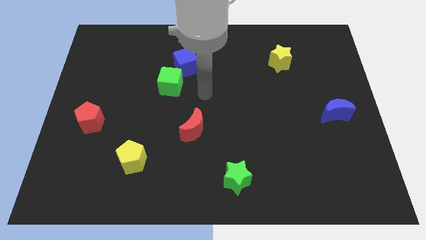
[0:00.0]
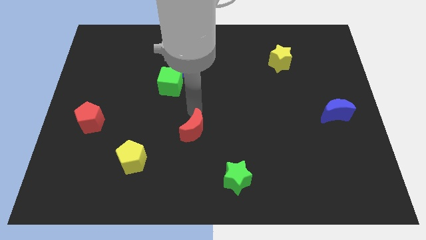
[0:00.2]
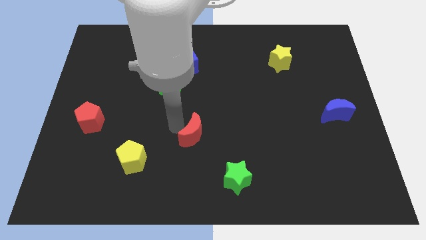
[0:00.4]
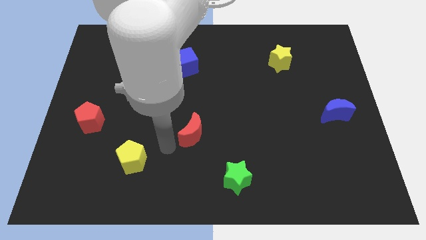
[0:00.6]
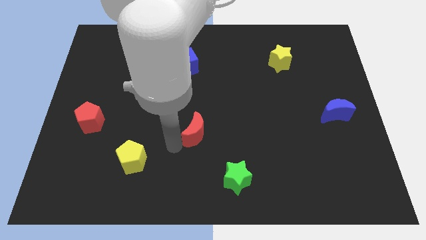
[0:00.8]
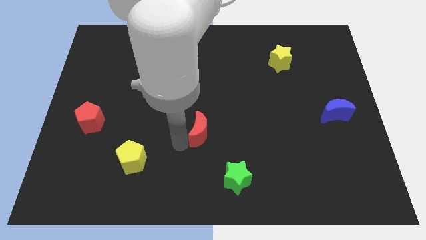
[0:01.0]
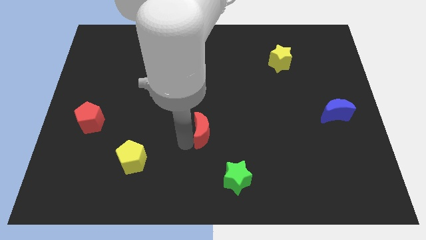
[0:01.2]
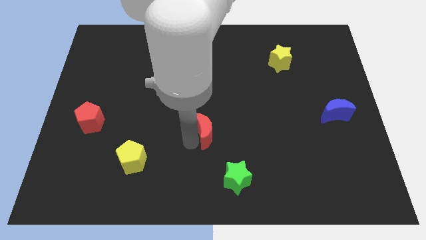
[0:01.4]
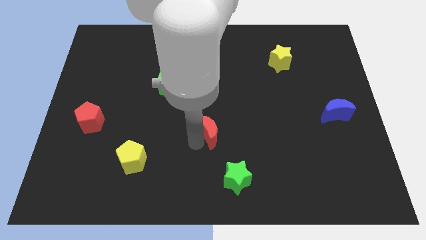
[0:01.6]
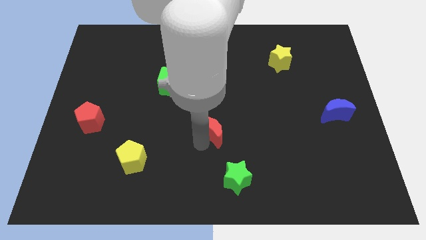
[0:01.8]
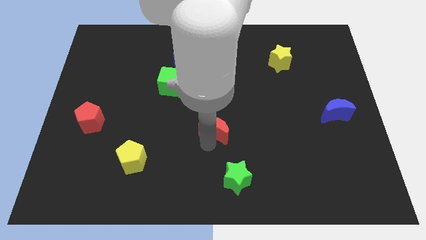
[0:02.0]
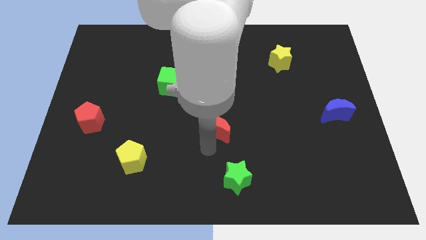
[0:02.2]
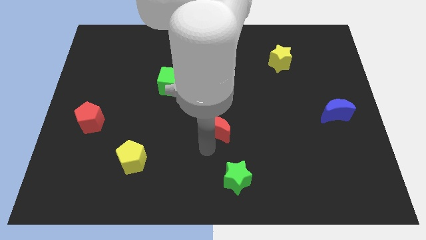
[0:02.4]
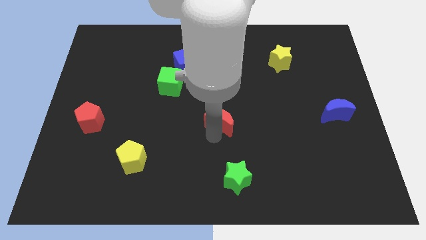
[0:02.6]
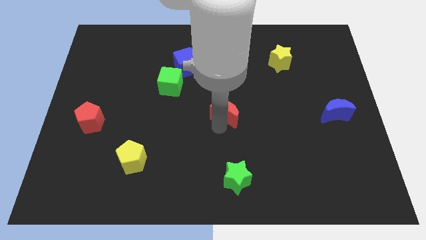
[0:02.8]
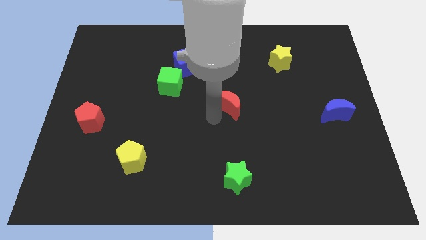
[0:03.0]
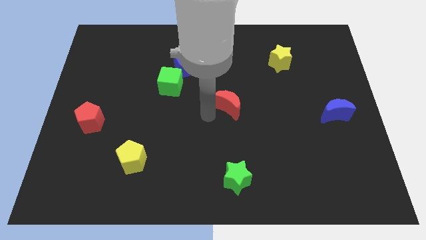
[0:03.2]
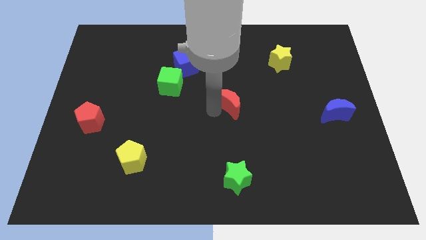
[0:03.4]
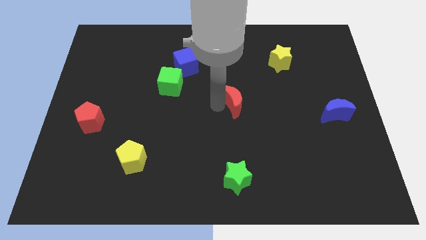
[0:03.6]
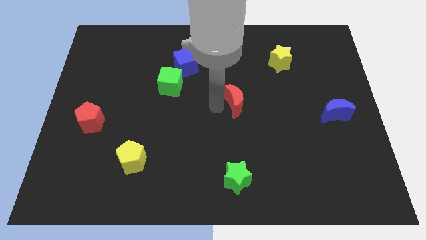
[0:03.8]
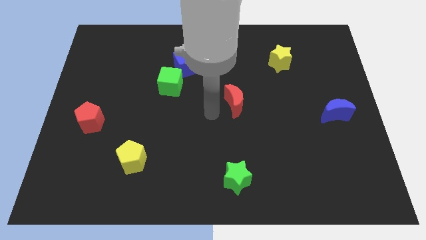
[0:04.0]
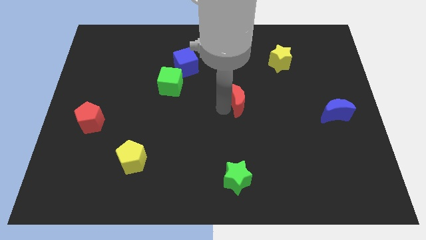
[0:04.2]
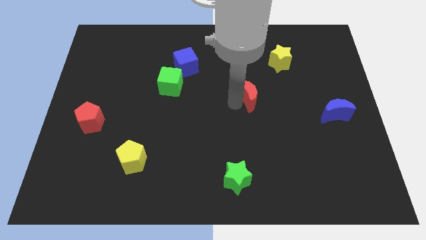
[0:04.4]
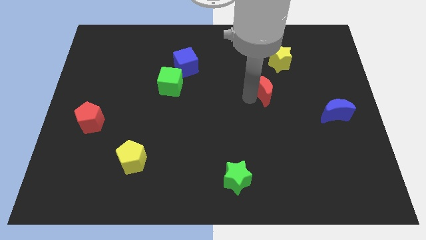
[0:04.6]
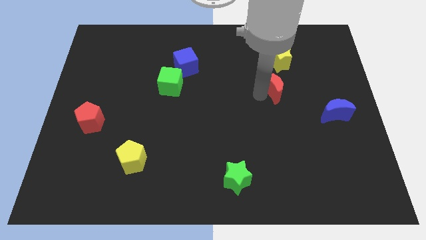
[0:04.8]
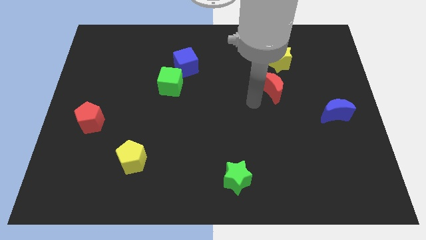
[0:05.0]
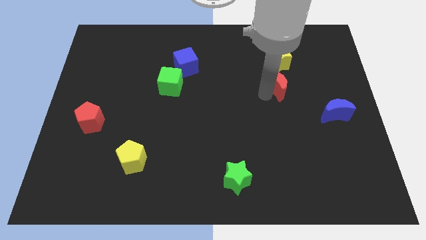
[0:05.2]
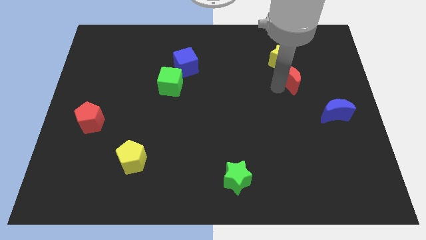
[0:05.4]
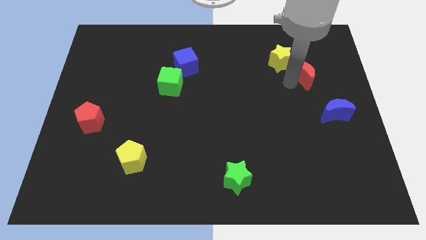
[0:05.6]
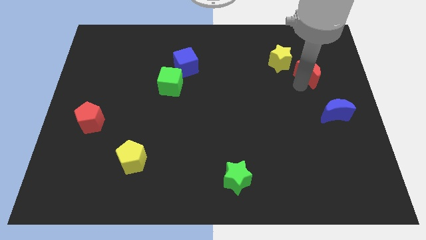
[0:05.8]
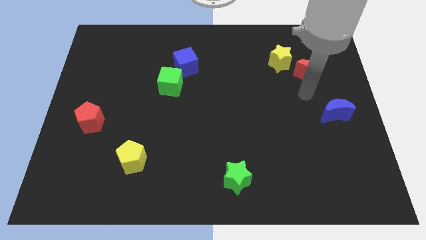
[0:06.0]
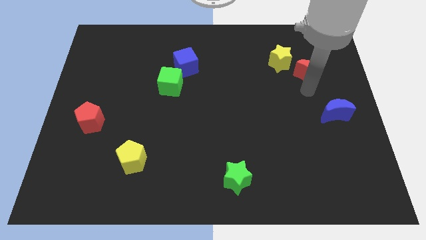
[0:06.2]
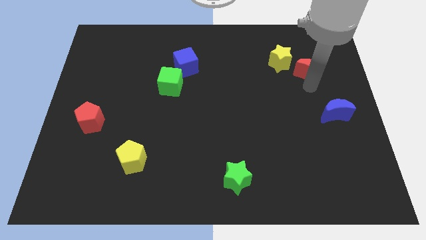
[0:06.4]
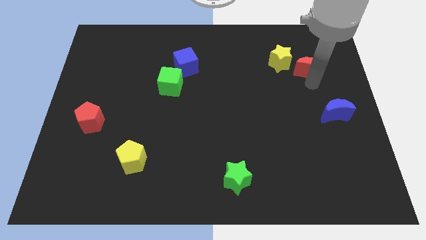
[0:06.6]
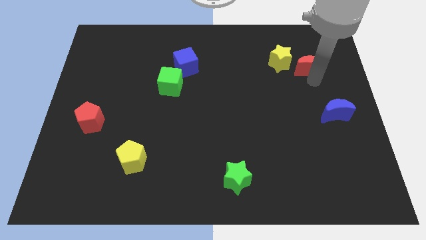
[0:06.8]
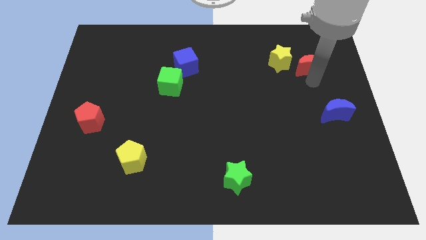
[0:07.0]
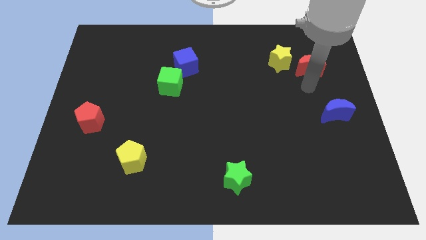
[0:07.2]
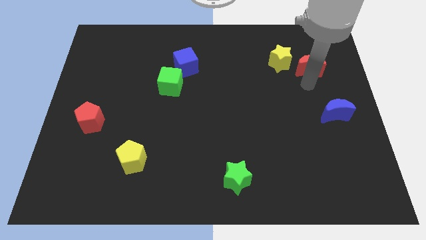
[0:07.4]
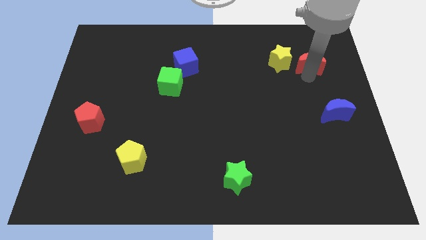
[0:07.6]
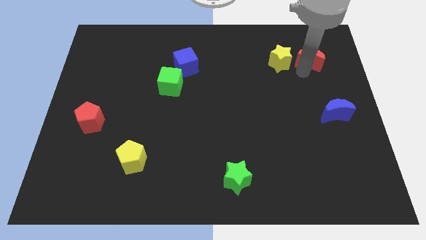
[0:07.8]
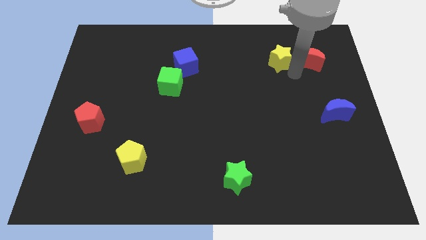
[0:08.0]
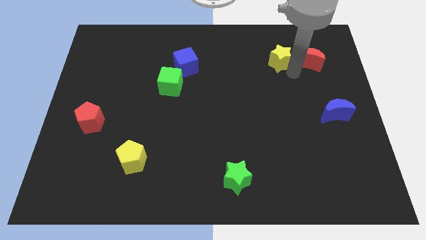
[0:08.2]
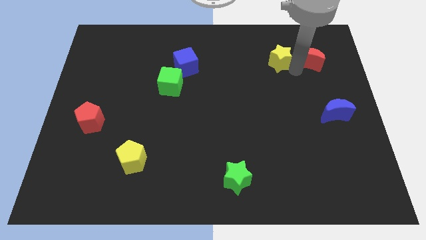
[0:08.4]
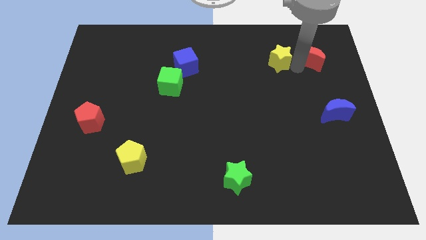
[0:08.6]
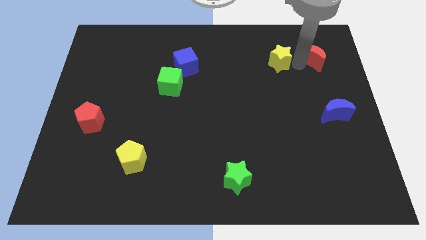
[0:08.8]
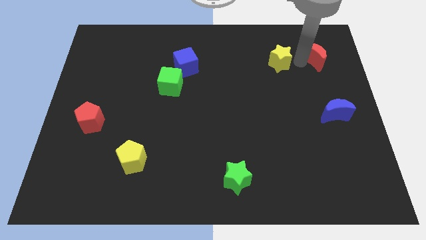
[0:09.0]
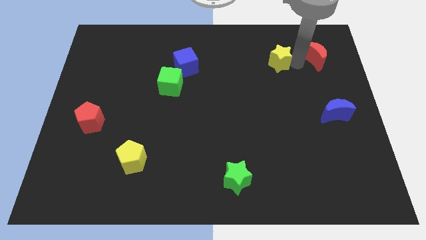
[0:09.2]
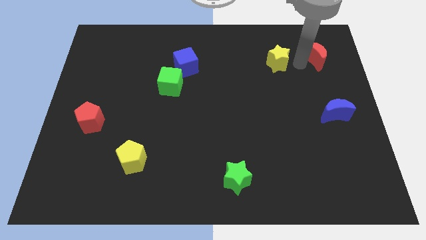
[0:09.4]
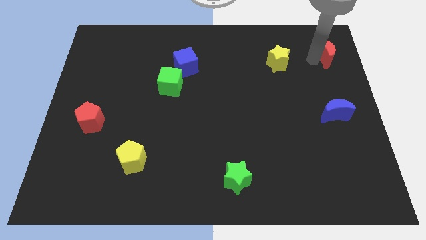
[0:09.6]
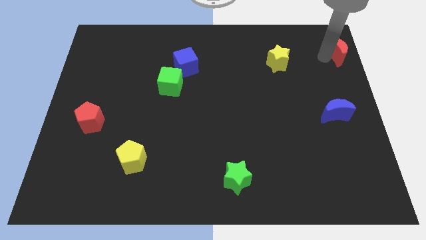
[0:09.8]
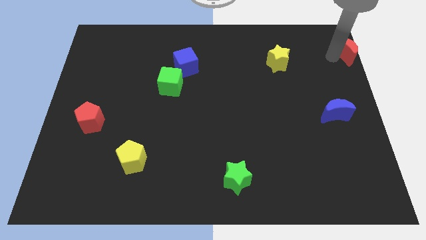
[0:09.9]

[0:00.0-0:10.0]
put the red moon to the top right

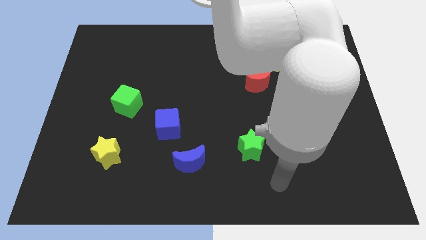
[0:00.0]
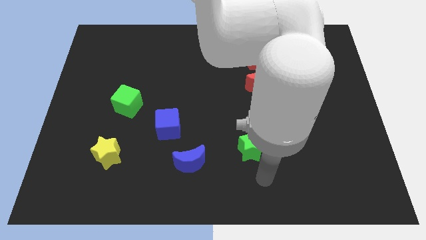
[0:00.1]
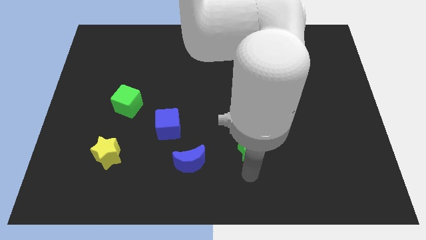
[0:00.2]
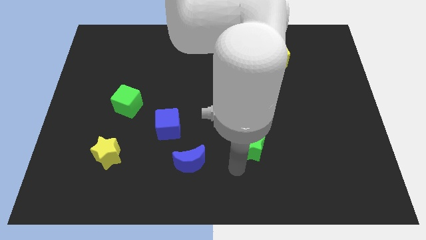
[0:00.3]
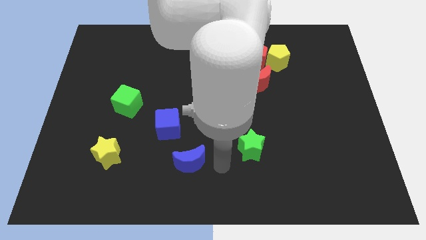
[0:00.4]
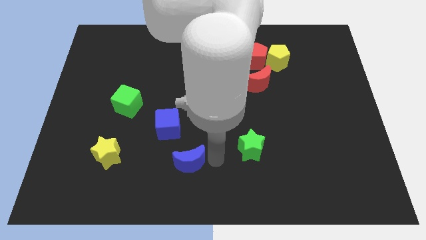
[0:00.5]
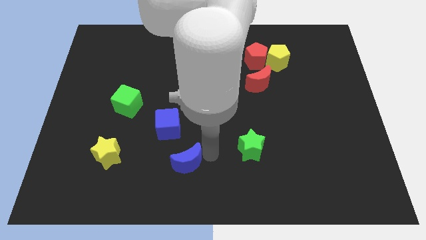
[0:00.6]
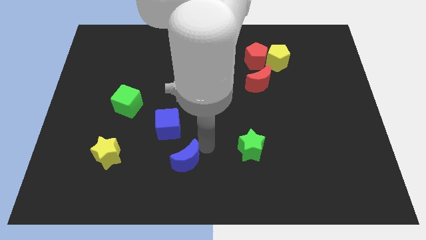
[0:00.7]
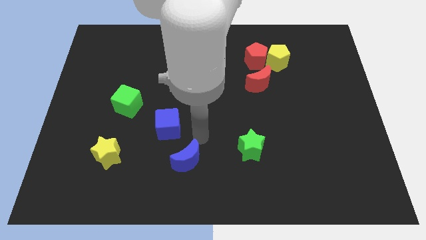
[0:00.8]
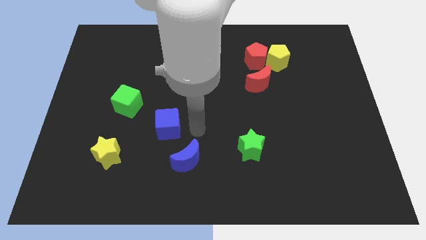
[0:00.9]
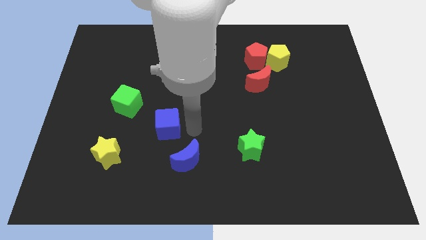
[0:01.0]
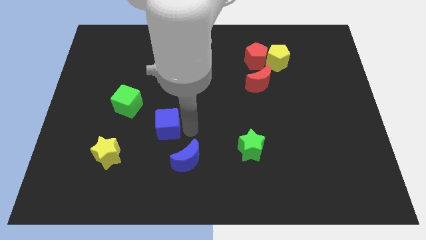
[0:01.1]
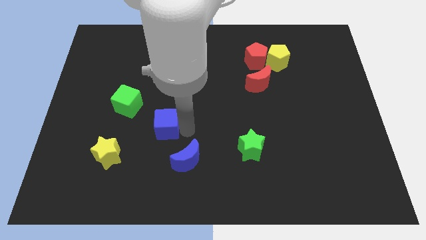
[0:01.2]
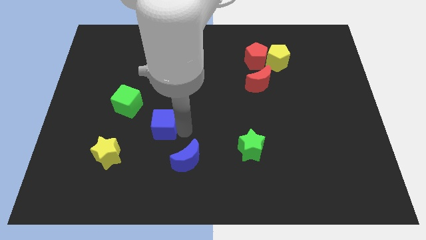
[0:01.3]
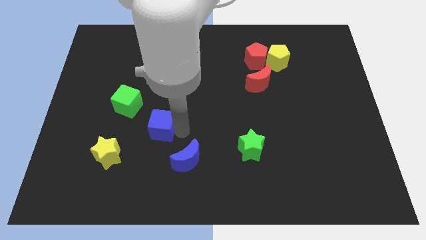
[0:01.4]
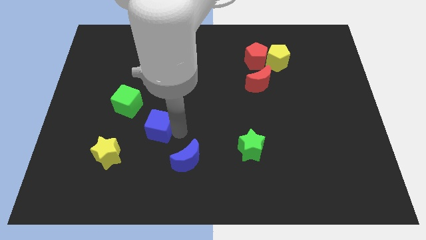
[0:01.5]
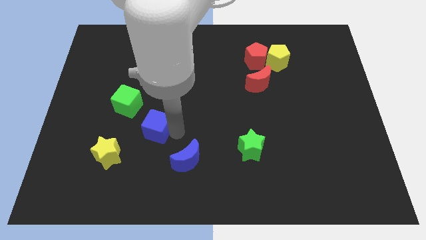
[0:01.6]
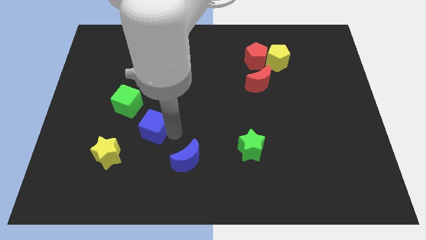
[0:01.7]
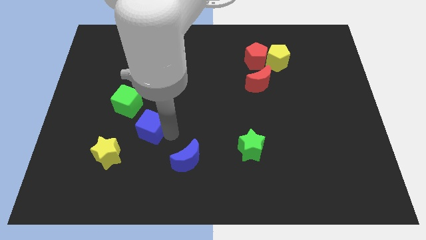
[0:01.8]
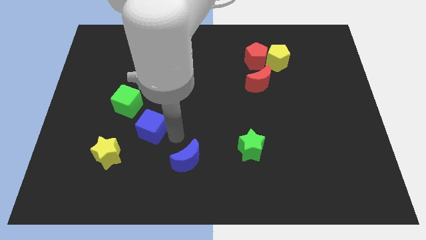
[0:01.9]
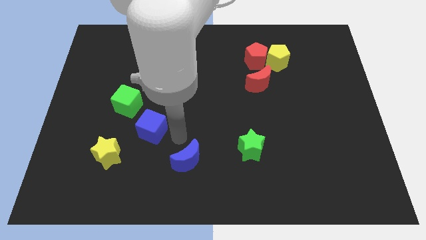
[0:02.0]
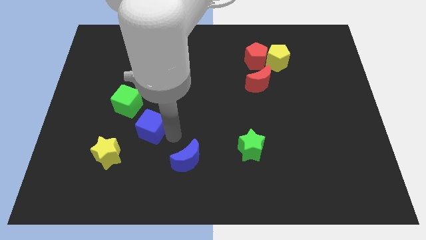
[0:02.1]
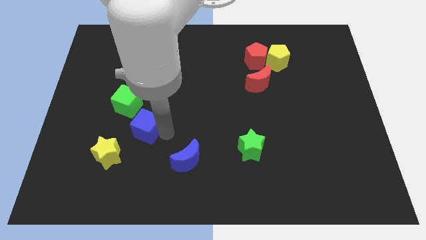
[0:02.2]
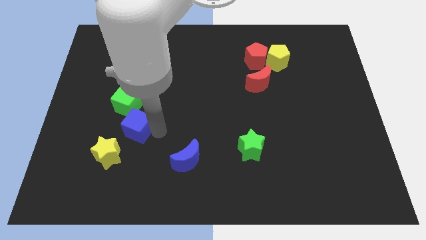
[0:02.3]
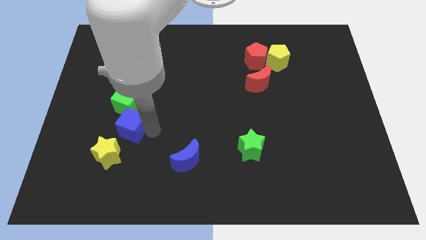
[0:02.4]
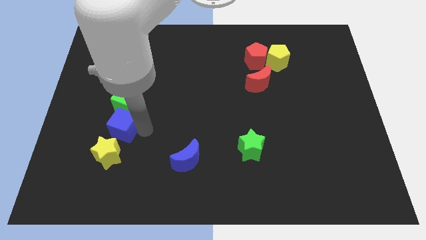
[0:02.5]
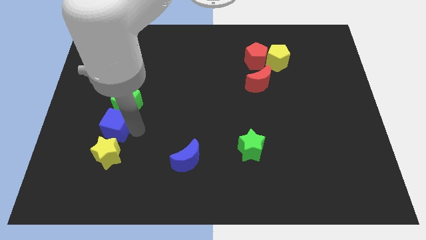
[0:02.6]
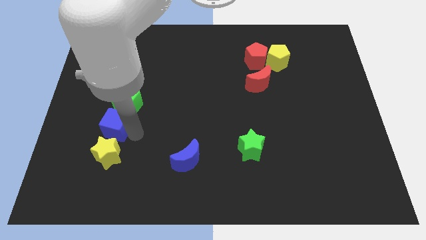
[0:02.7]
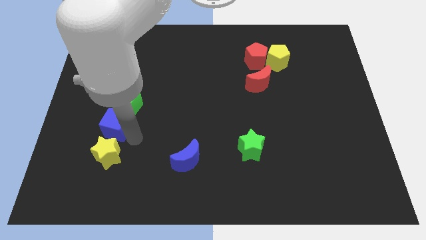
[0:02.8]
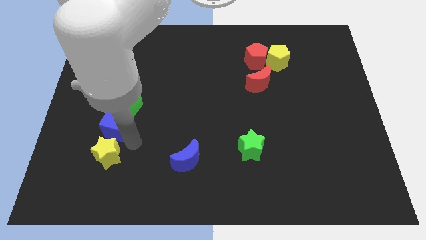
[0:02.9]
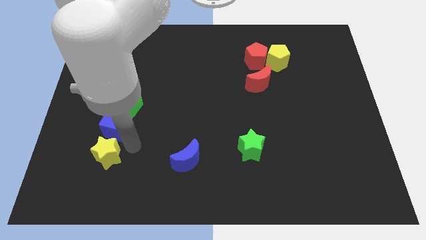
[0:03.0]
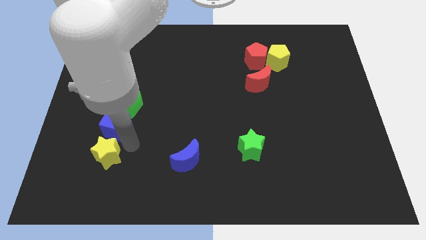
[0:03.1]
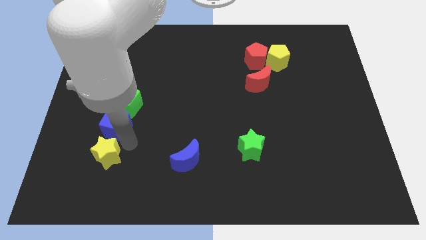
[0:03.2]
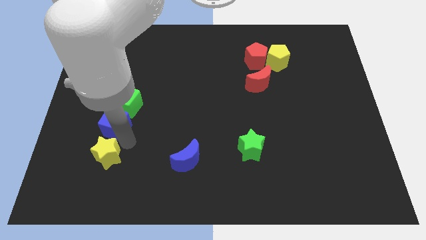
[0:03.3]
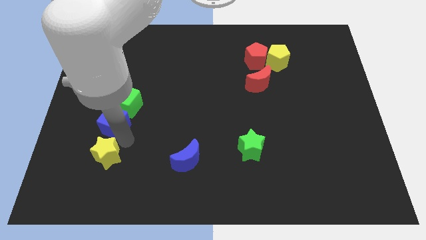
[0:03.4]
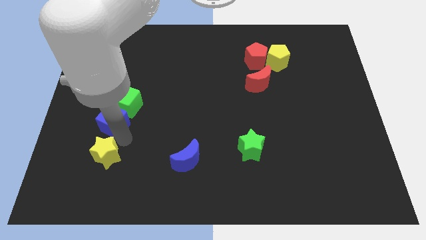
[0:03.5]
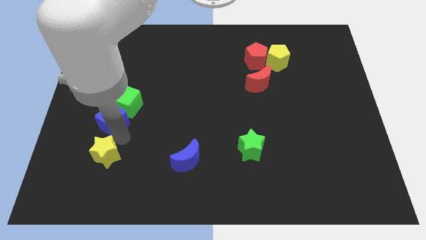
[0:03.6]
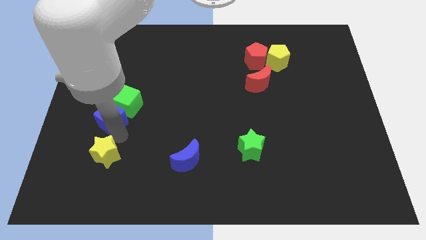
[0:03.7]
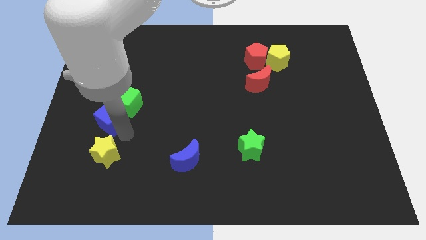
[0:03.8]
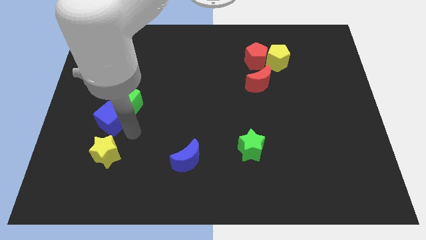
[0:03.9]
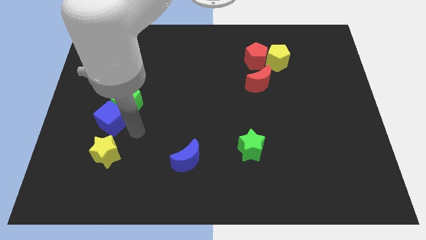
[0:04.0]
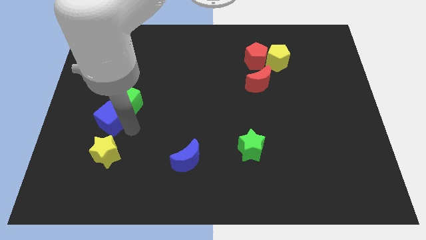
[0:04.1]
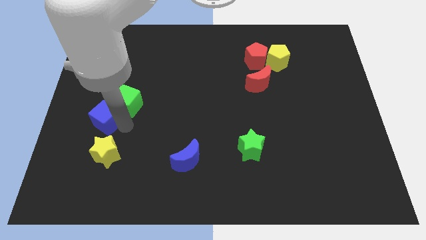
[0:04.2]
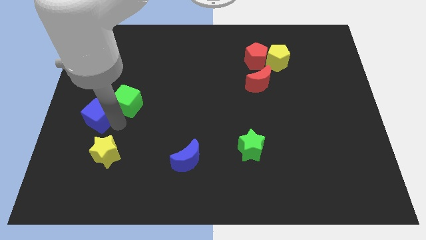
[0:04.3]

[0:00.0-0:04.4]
move the blue cube to the center left
